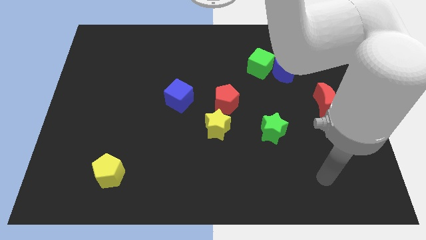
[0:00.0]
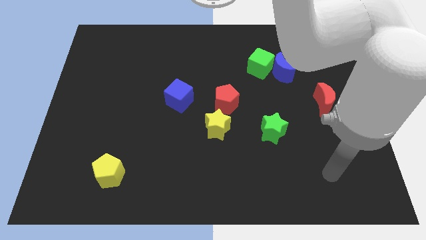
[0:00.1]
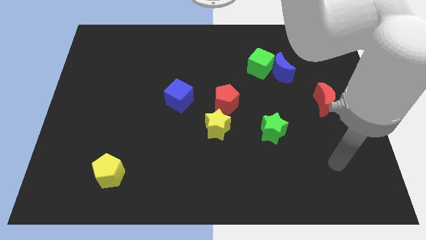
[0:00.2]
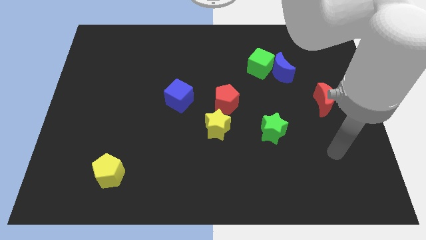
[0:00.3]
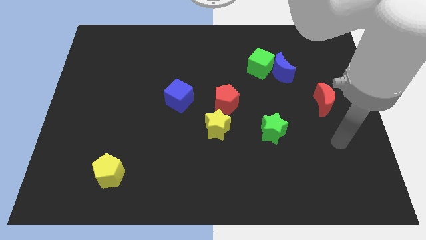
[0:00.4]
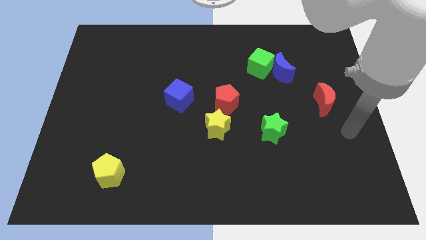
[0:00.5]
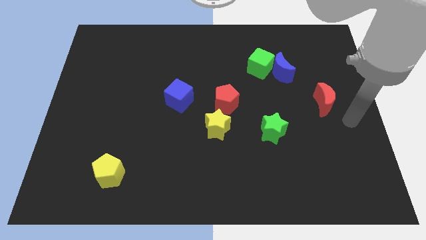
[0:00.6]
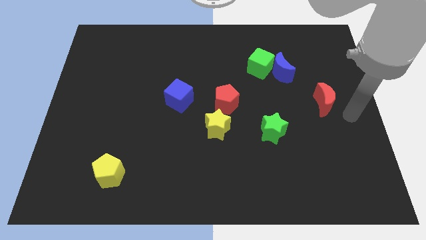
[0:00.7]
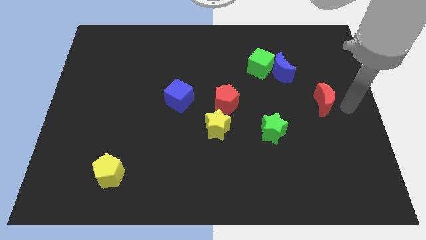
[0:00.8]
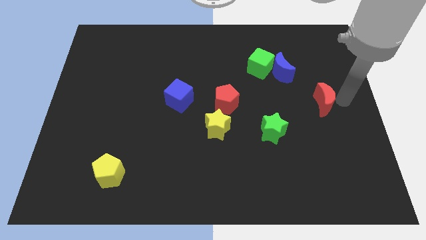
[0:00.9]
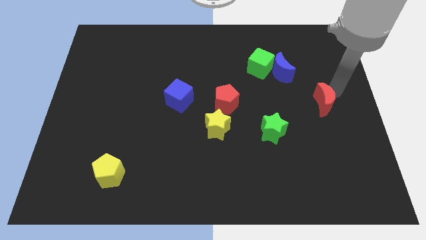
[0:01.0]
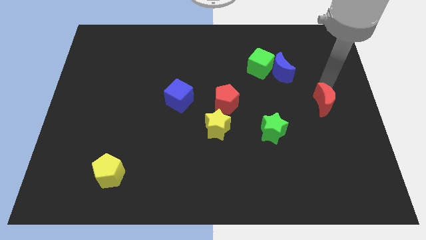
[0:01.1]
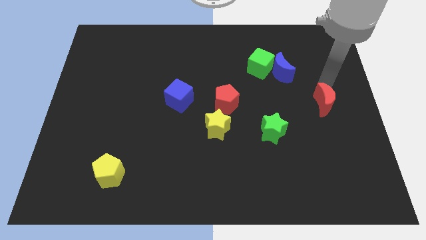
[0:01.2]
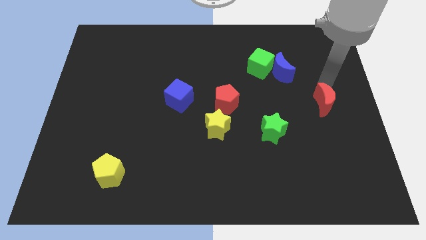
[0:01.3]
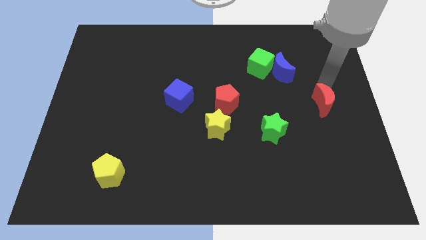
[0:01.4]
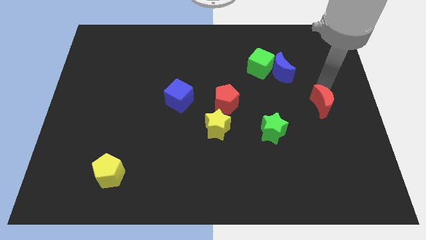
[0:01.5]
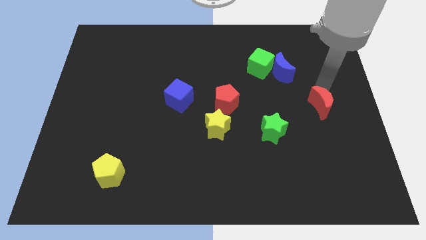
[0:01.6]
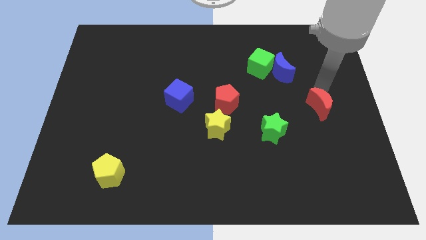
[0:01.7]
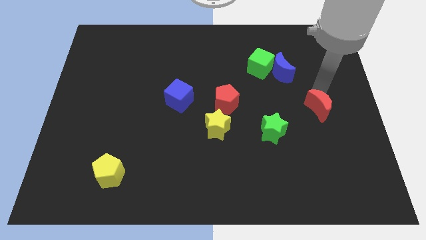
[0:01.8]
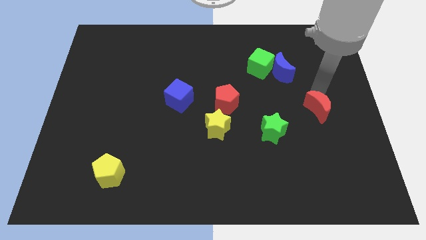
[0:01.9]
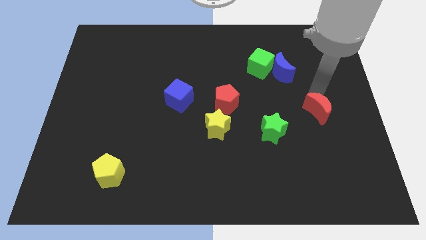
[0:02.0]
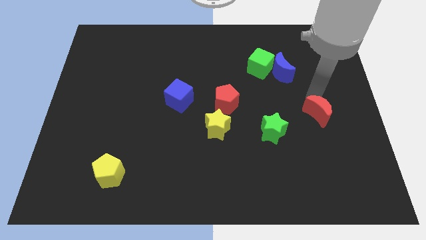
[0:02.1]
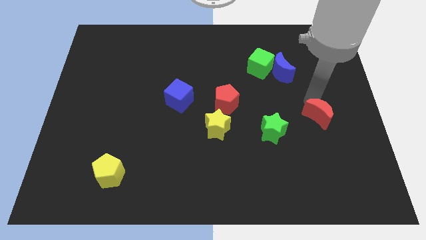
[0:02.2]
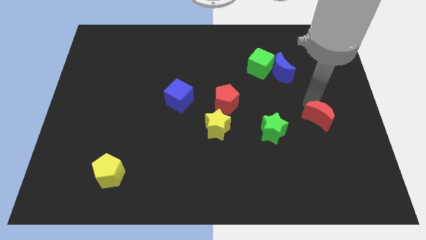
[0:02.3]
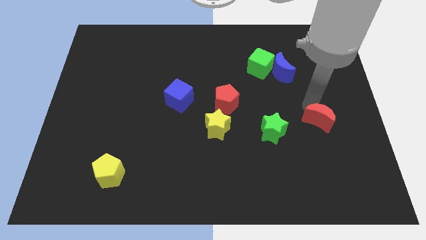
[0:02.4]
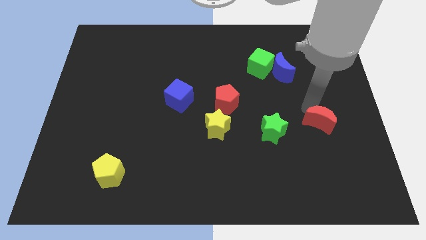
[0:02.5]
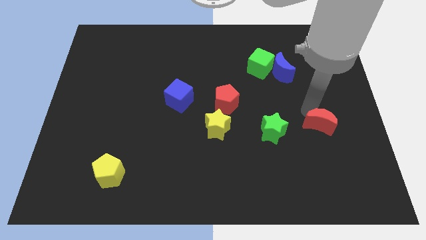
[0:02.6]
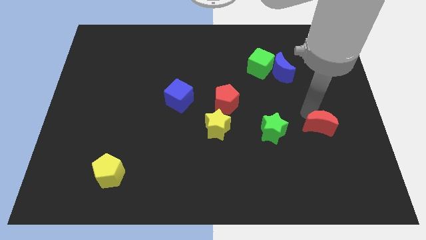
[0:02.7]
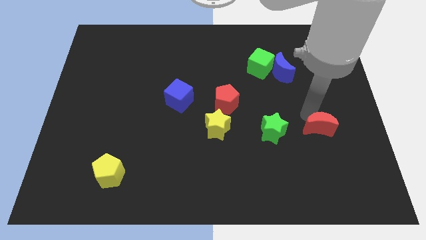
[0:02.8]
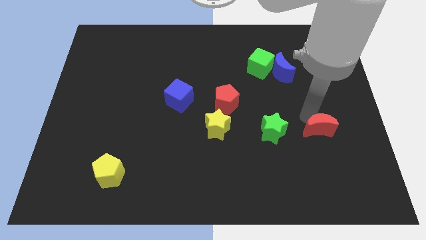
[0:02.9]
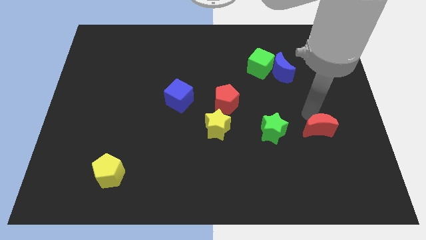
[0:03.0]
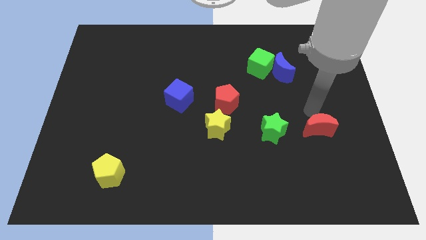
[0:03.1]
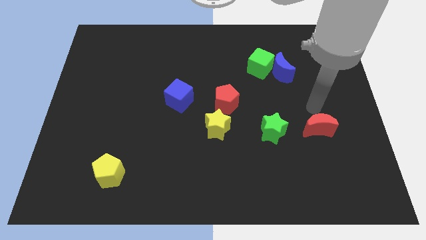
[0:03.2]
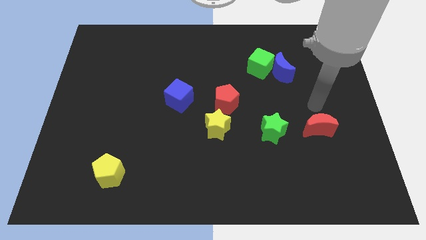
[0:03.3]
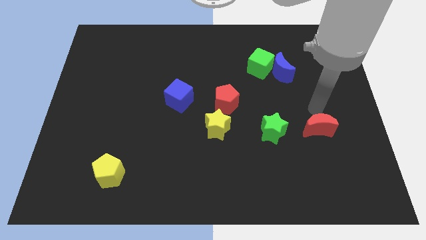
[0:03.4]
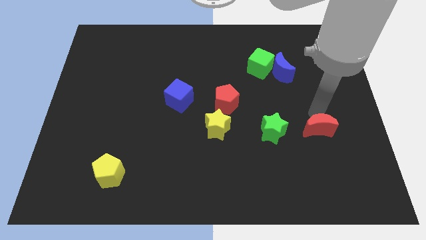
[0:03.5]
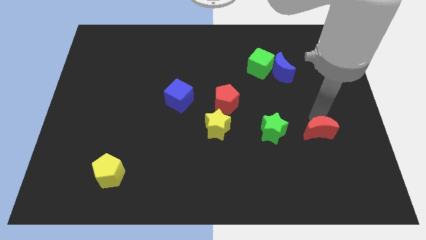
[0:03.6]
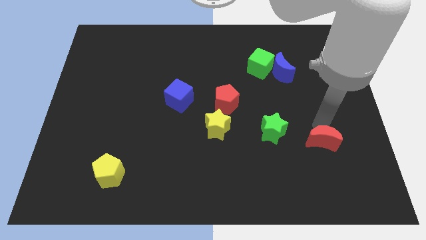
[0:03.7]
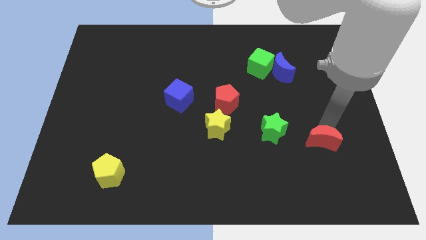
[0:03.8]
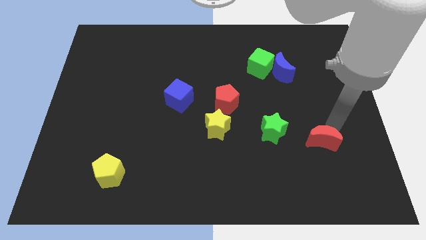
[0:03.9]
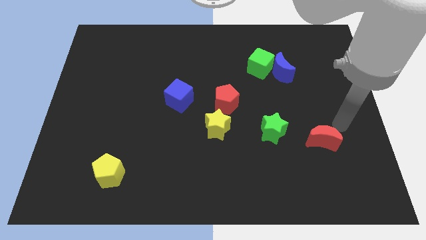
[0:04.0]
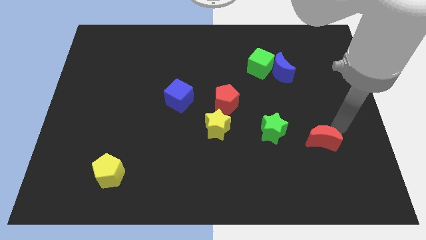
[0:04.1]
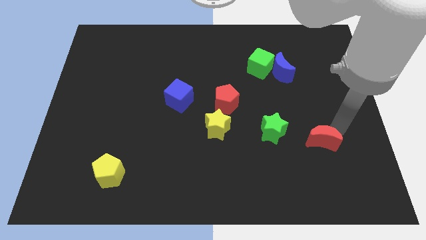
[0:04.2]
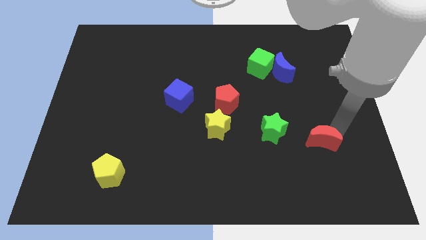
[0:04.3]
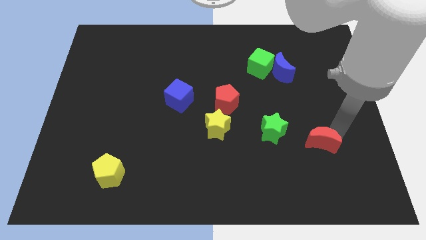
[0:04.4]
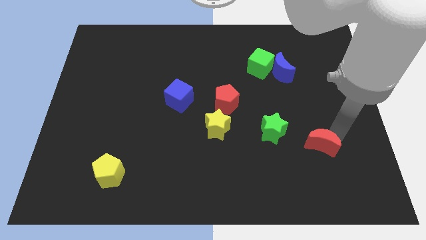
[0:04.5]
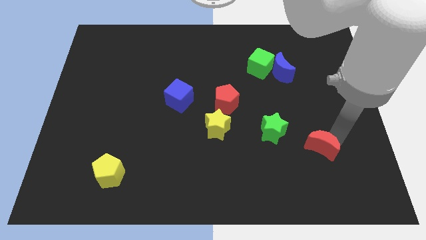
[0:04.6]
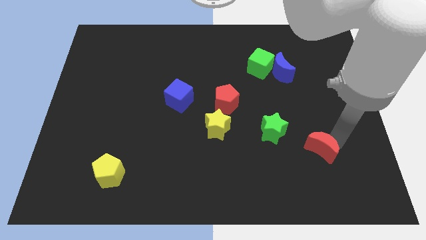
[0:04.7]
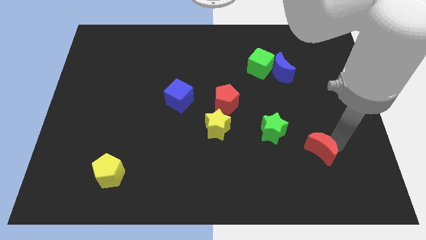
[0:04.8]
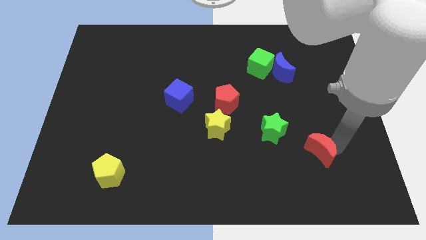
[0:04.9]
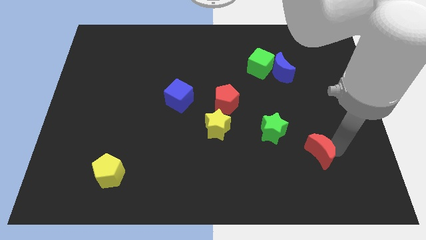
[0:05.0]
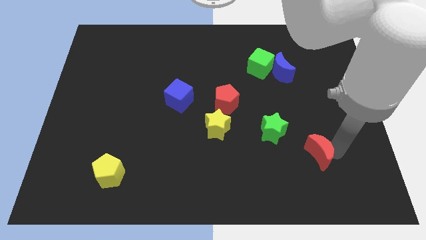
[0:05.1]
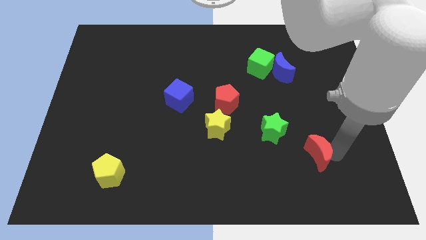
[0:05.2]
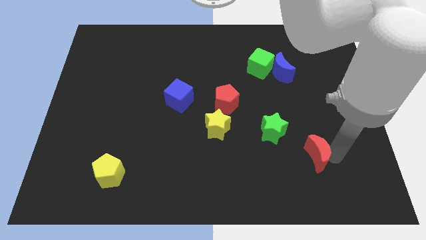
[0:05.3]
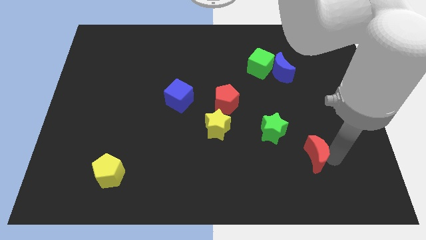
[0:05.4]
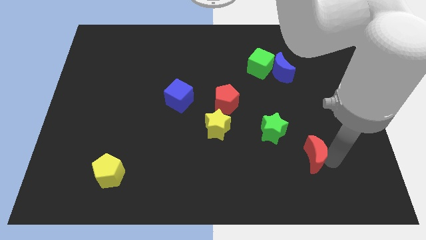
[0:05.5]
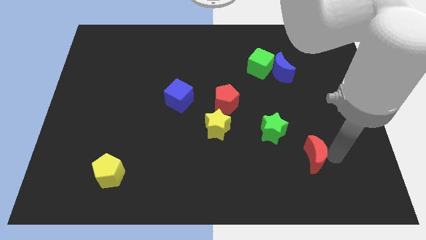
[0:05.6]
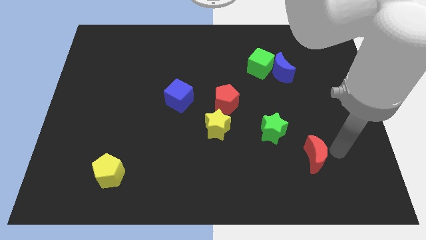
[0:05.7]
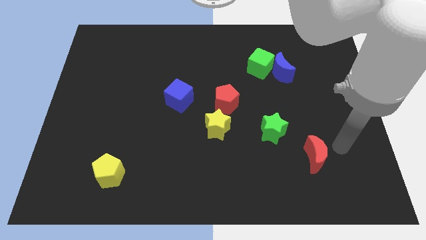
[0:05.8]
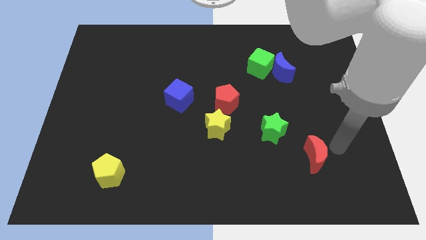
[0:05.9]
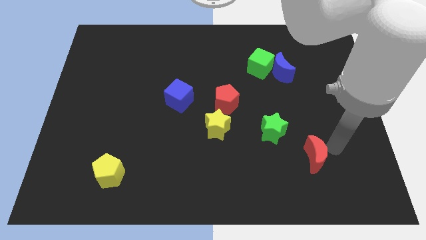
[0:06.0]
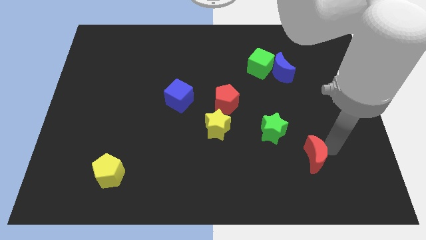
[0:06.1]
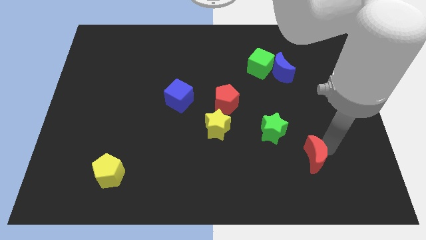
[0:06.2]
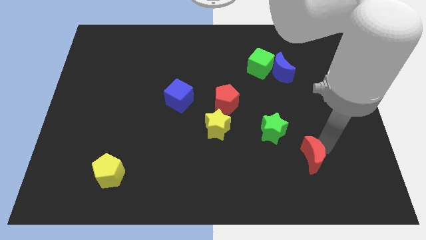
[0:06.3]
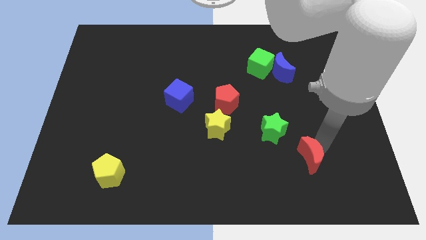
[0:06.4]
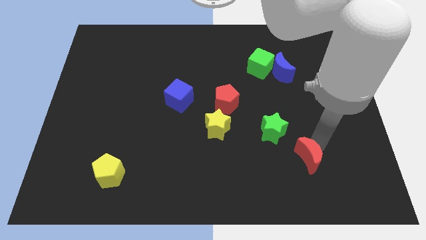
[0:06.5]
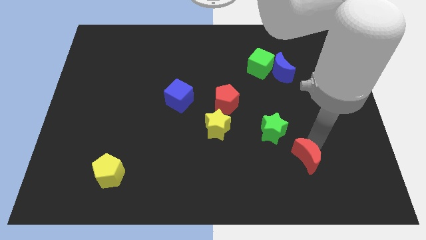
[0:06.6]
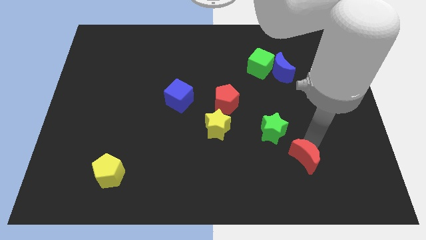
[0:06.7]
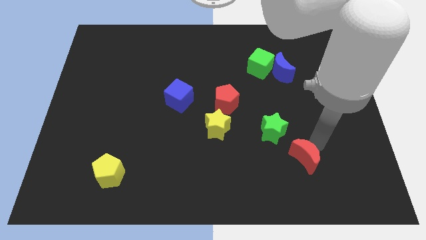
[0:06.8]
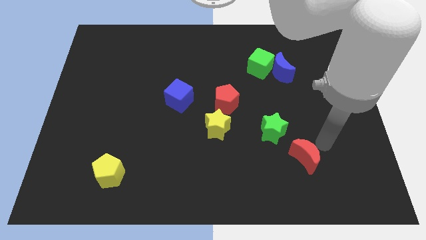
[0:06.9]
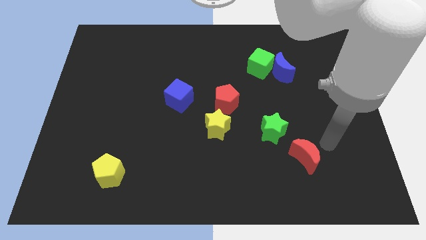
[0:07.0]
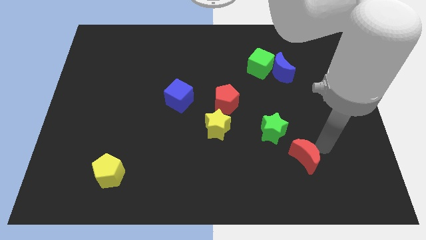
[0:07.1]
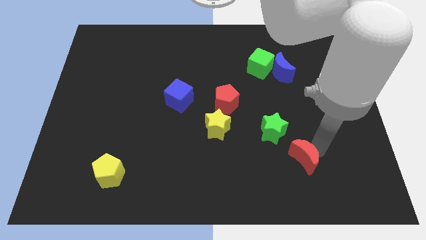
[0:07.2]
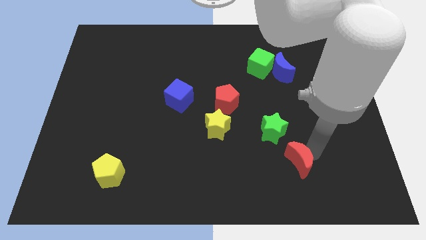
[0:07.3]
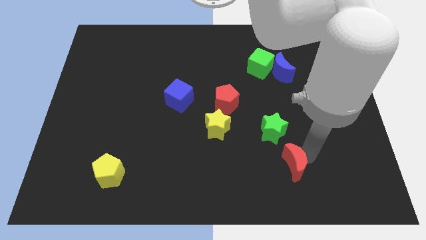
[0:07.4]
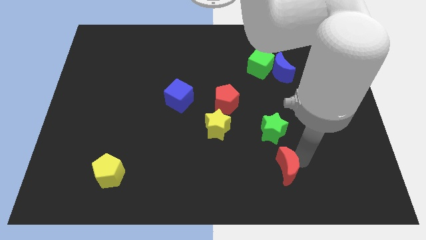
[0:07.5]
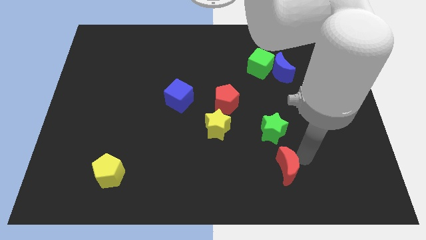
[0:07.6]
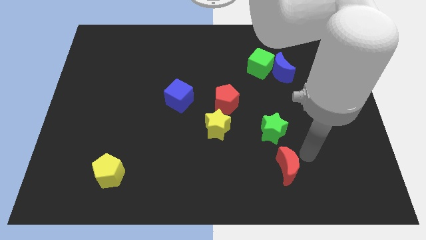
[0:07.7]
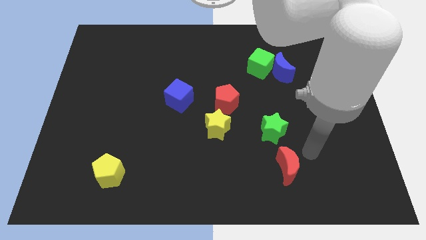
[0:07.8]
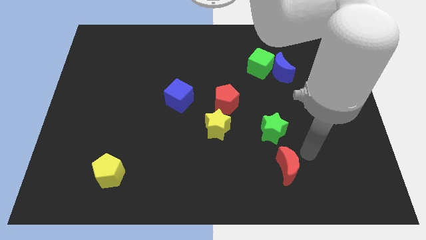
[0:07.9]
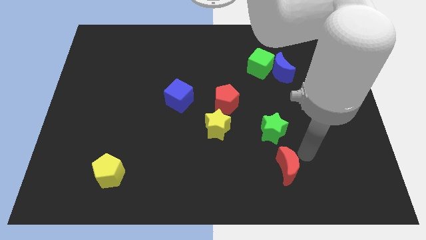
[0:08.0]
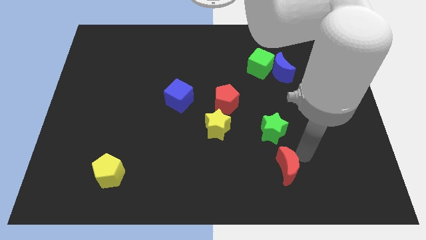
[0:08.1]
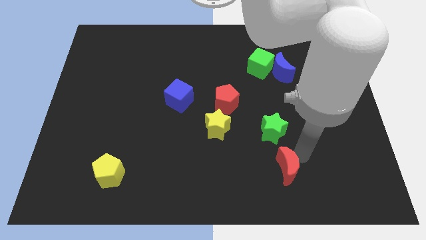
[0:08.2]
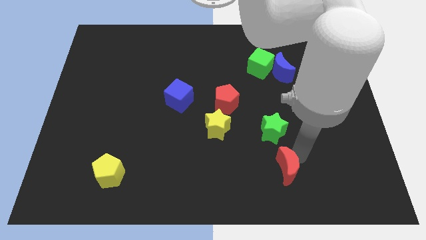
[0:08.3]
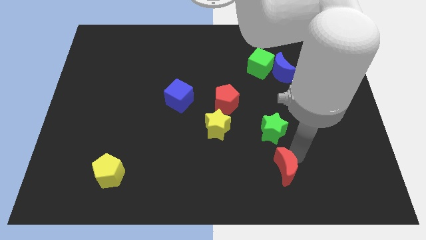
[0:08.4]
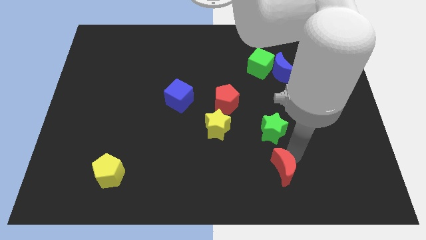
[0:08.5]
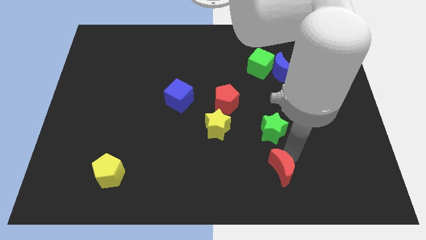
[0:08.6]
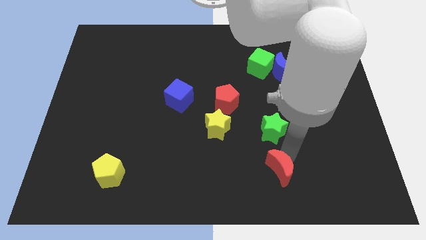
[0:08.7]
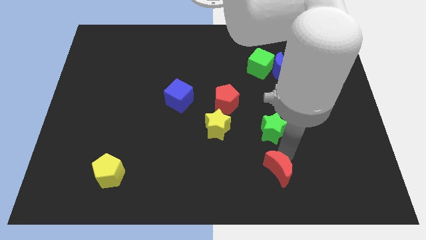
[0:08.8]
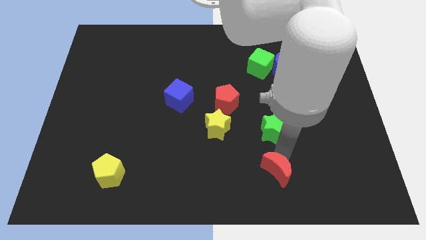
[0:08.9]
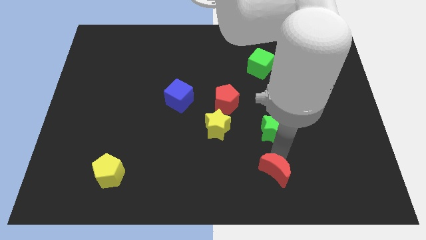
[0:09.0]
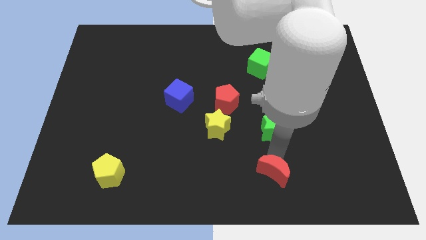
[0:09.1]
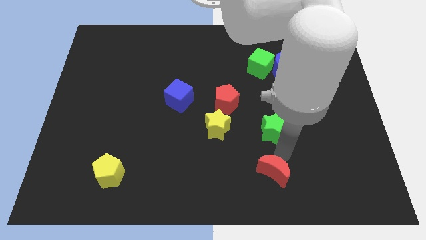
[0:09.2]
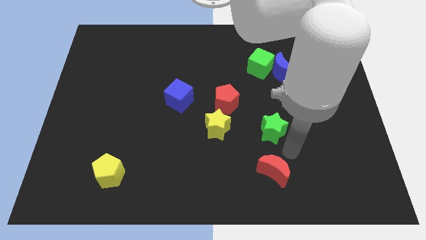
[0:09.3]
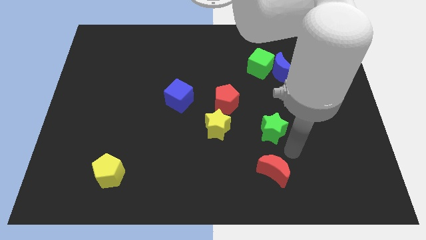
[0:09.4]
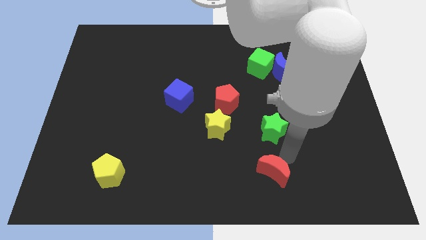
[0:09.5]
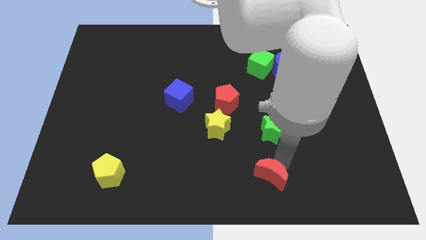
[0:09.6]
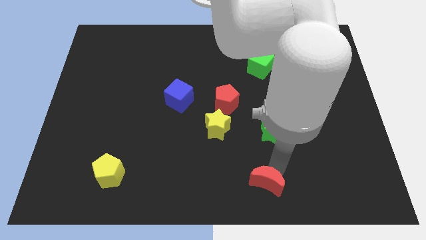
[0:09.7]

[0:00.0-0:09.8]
put the red moon to the bottom
